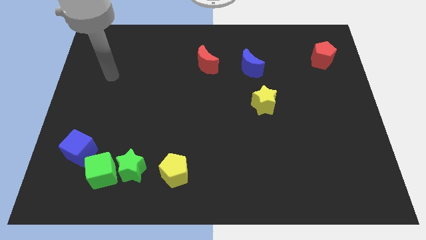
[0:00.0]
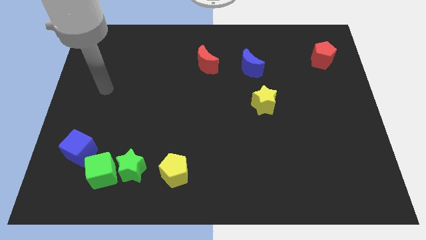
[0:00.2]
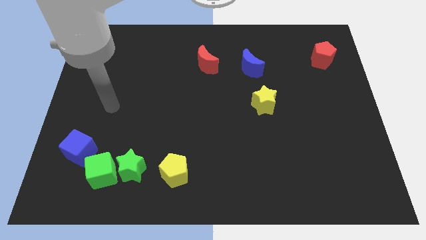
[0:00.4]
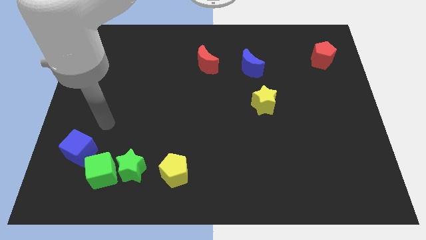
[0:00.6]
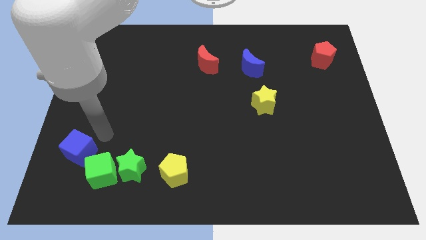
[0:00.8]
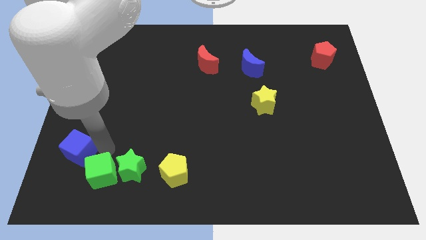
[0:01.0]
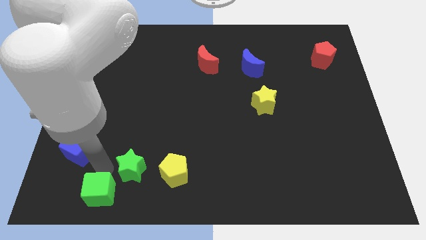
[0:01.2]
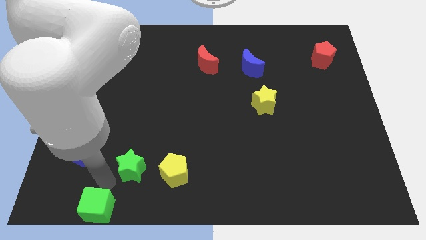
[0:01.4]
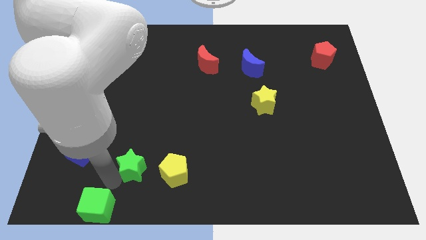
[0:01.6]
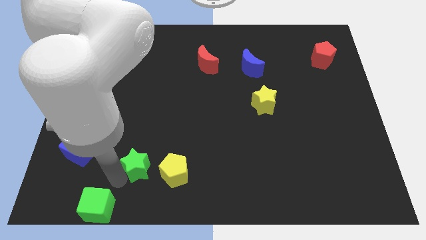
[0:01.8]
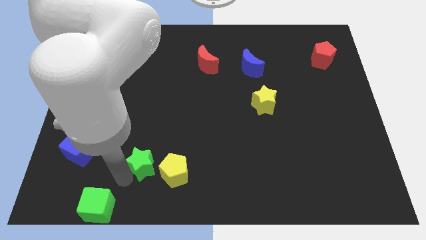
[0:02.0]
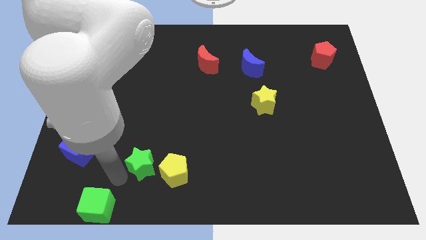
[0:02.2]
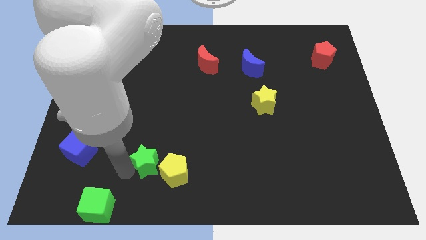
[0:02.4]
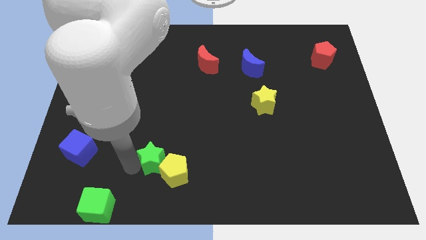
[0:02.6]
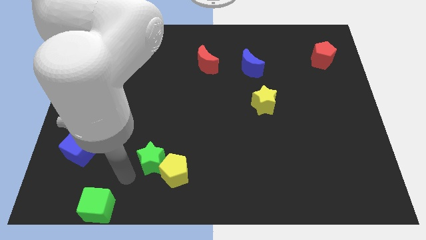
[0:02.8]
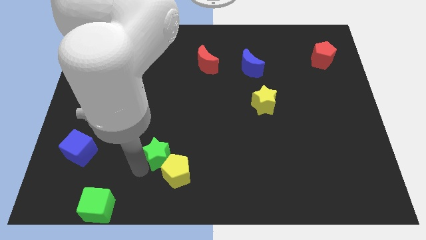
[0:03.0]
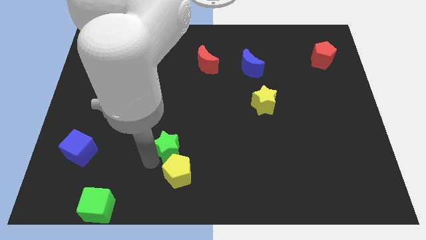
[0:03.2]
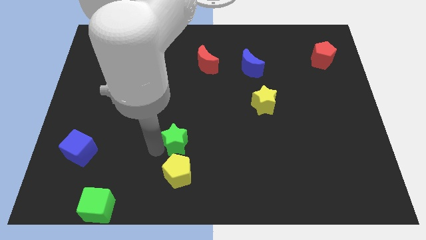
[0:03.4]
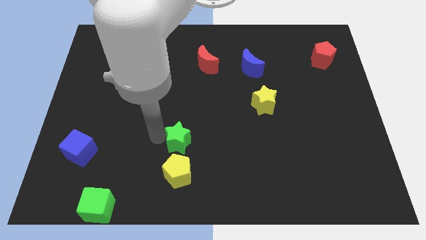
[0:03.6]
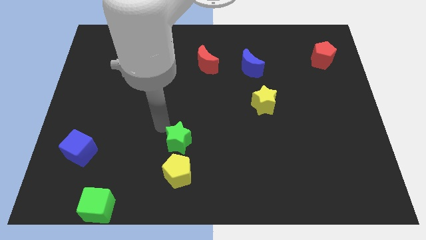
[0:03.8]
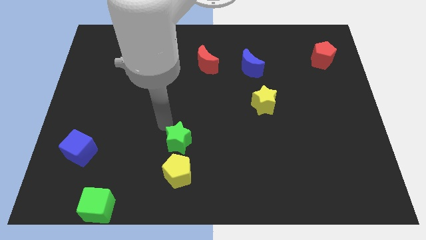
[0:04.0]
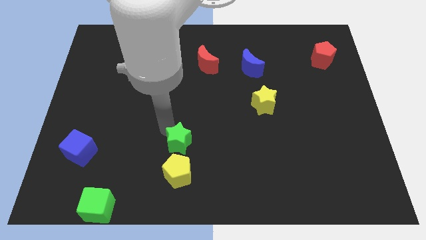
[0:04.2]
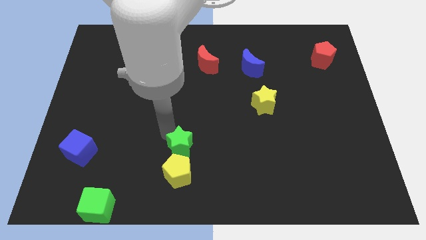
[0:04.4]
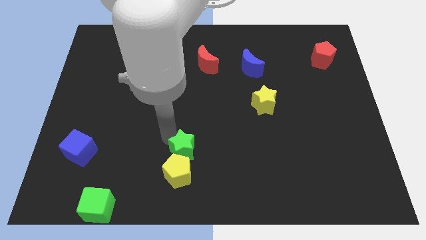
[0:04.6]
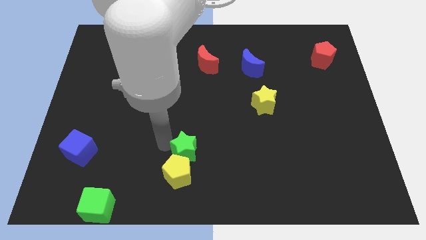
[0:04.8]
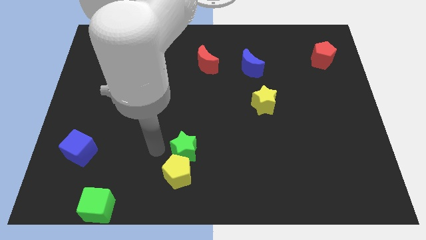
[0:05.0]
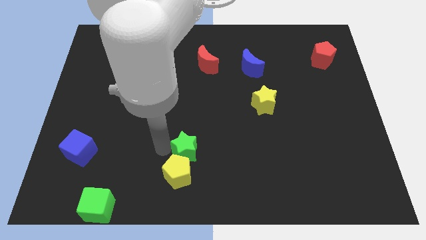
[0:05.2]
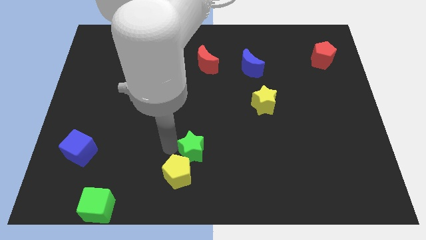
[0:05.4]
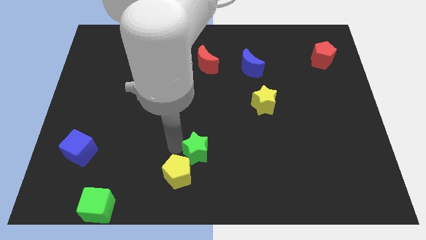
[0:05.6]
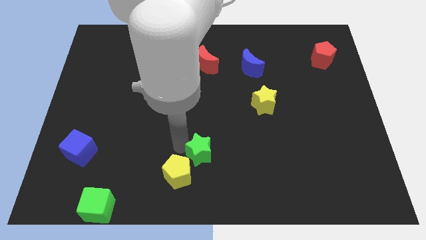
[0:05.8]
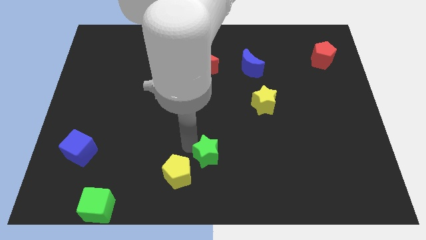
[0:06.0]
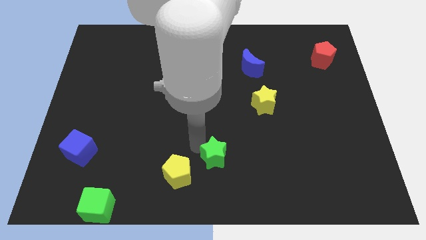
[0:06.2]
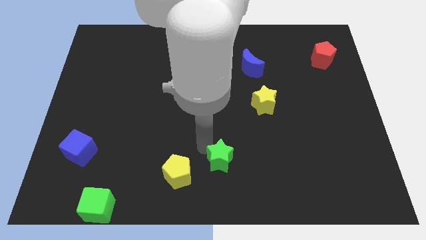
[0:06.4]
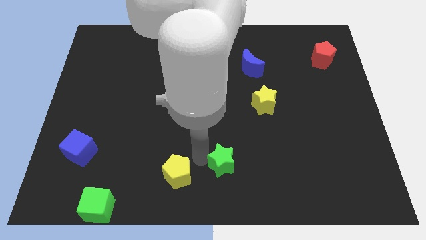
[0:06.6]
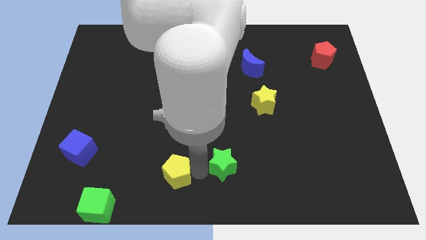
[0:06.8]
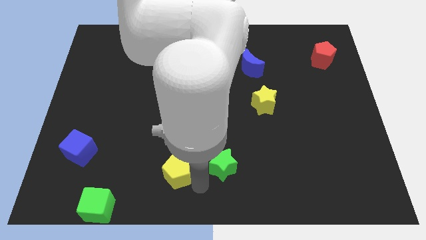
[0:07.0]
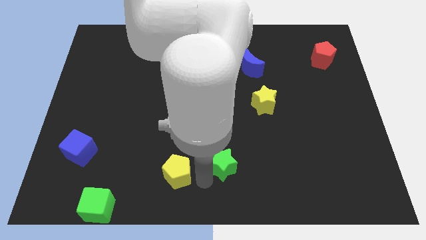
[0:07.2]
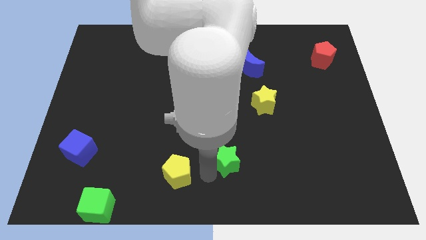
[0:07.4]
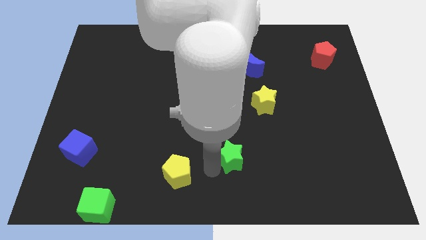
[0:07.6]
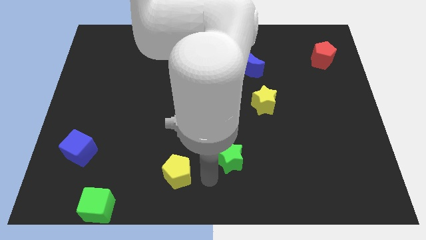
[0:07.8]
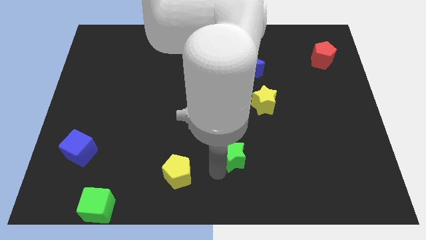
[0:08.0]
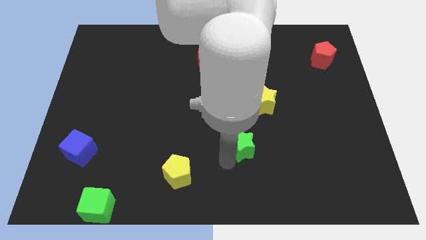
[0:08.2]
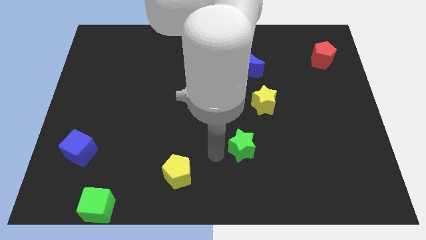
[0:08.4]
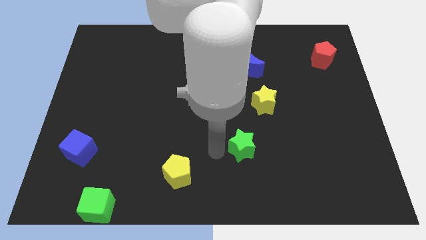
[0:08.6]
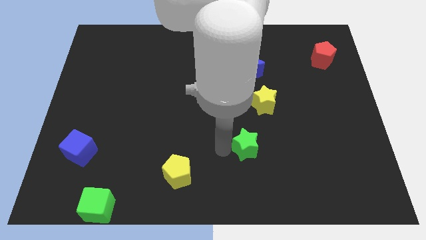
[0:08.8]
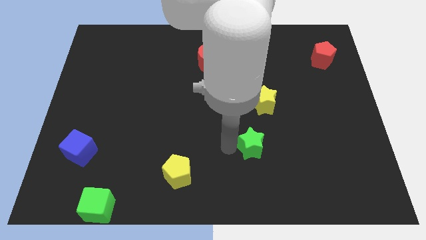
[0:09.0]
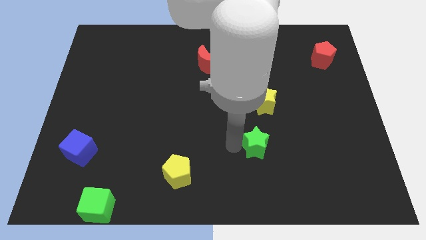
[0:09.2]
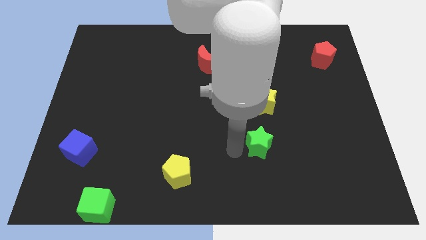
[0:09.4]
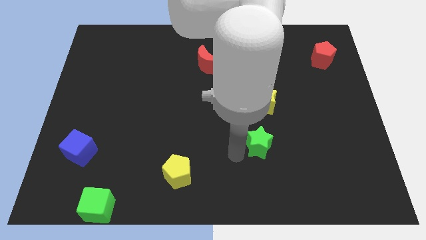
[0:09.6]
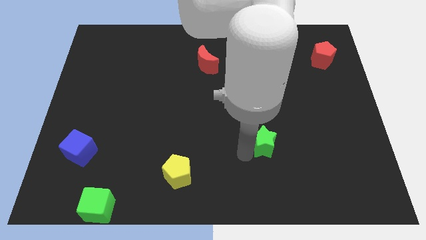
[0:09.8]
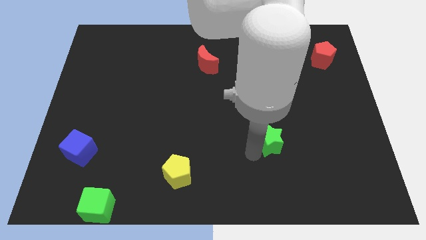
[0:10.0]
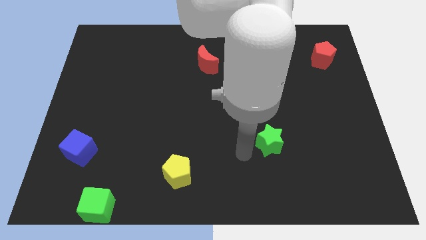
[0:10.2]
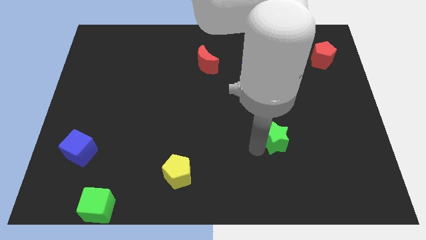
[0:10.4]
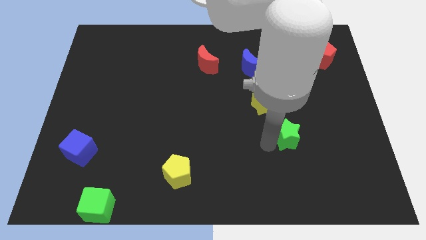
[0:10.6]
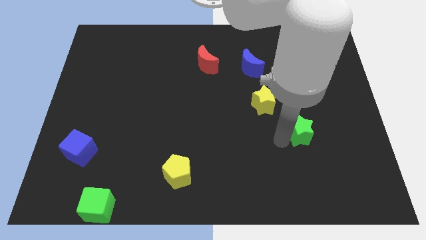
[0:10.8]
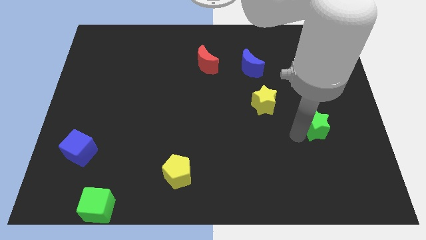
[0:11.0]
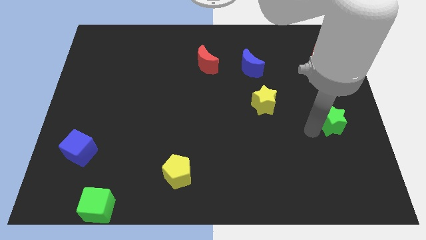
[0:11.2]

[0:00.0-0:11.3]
put the green star to the right side

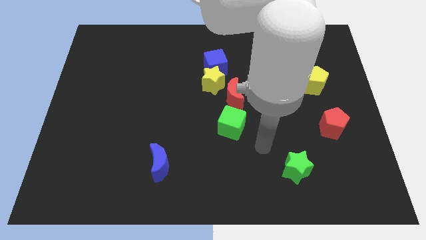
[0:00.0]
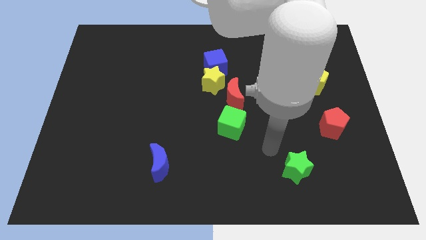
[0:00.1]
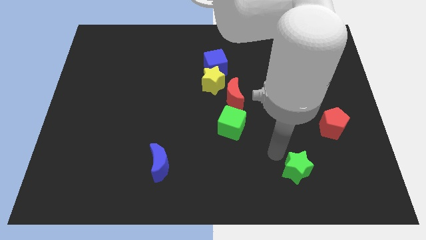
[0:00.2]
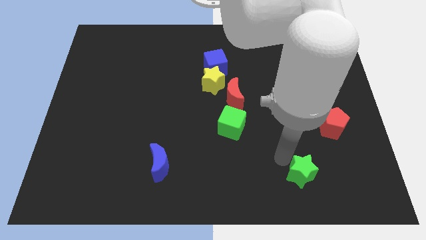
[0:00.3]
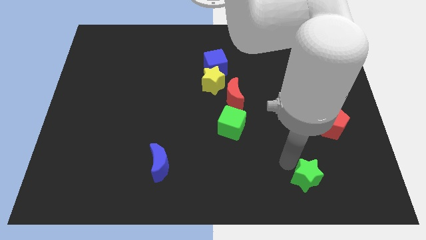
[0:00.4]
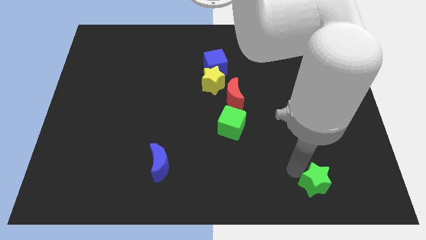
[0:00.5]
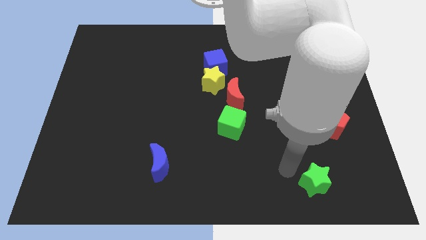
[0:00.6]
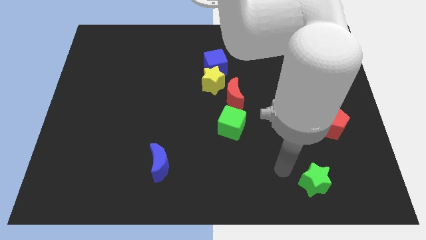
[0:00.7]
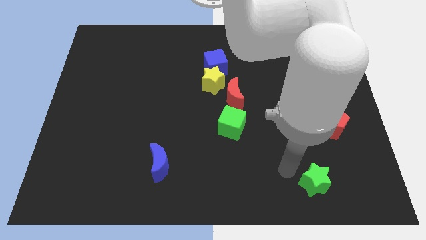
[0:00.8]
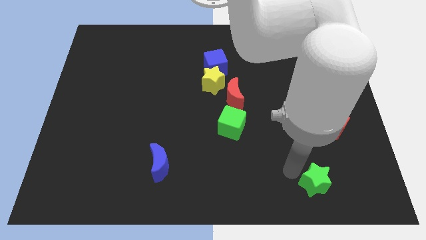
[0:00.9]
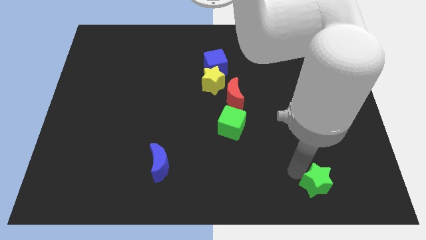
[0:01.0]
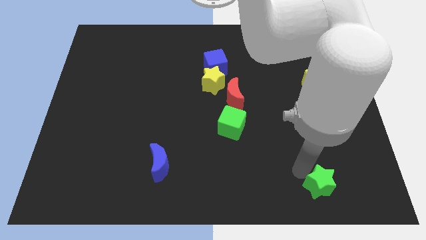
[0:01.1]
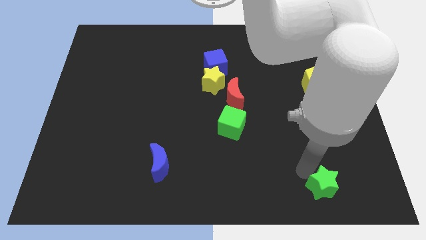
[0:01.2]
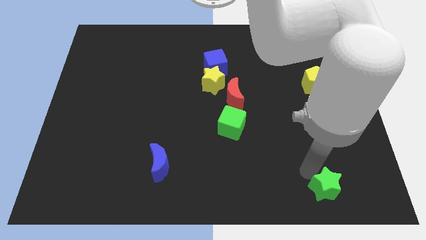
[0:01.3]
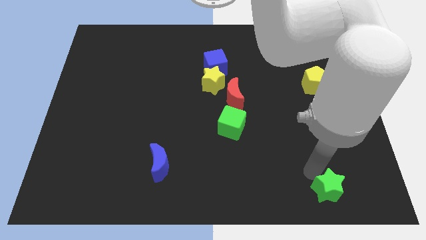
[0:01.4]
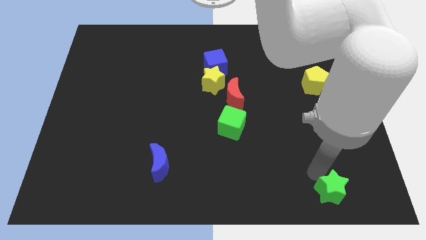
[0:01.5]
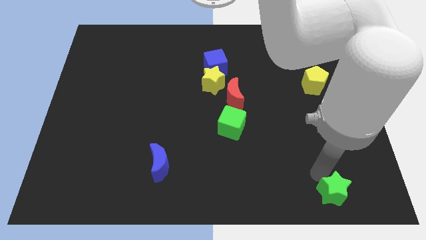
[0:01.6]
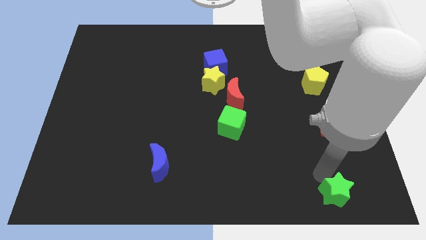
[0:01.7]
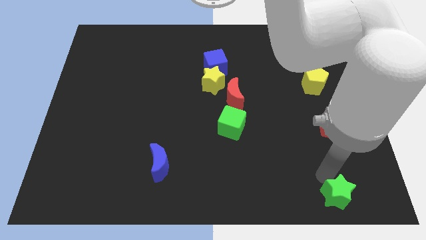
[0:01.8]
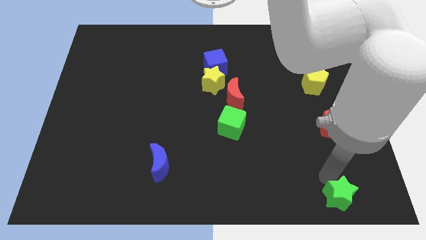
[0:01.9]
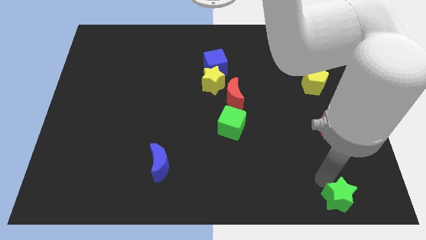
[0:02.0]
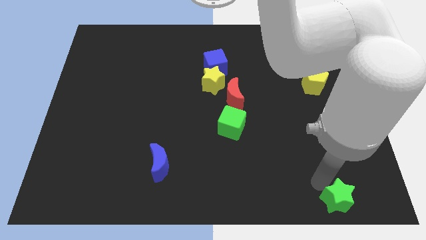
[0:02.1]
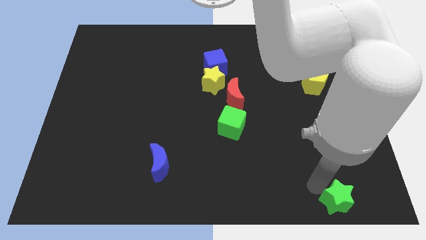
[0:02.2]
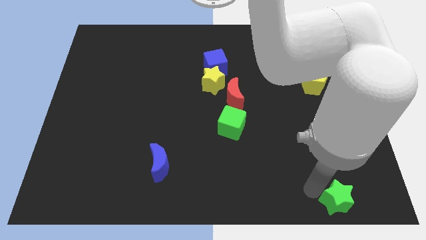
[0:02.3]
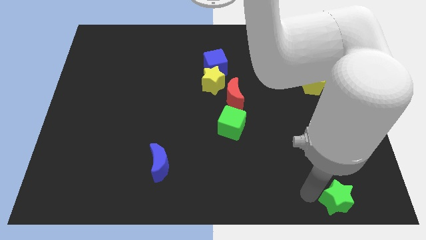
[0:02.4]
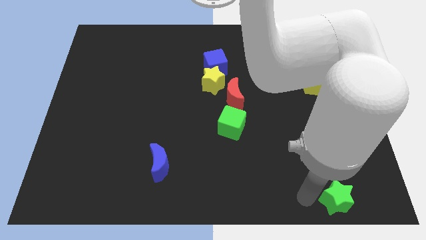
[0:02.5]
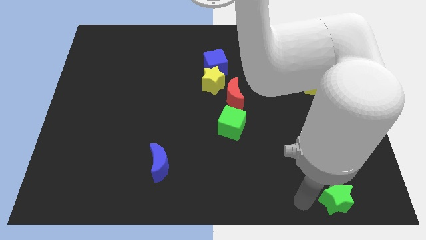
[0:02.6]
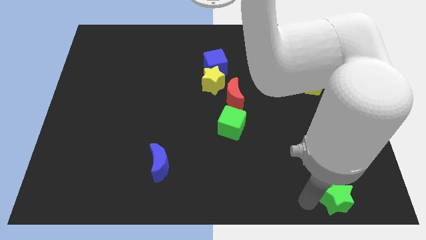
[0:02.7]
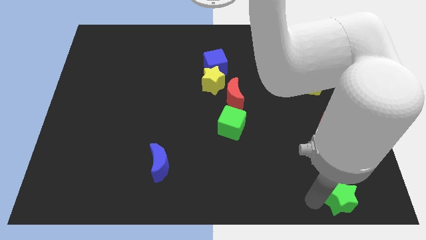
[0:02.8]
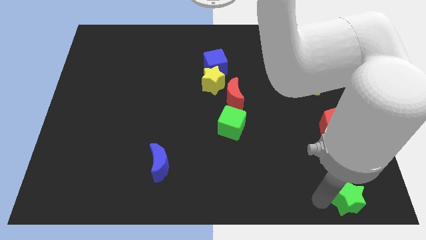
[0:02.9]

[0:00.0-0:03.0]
put the green star to the bottom right
